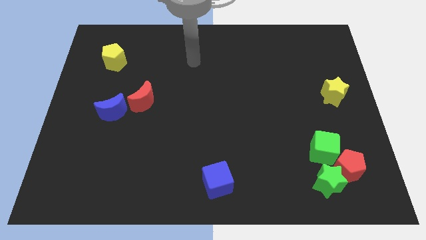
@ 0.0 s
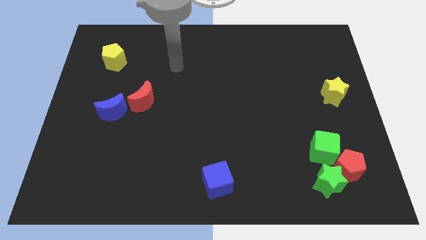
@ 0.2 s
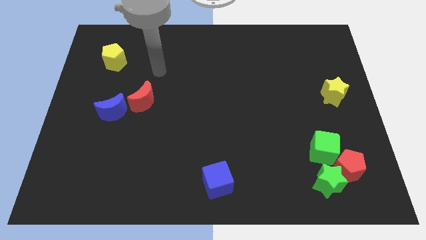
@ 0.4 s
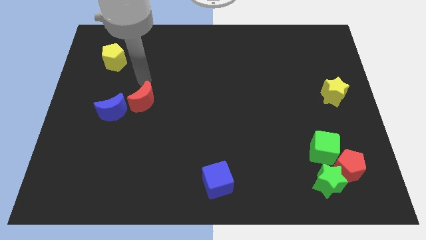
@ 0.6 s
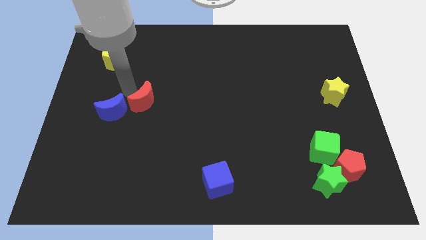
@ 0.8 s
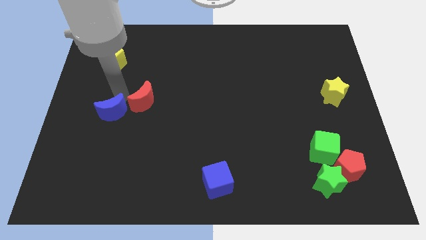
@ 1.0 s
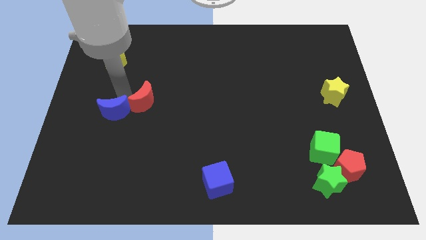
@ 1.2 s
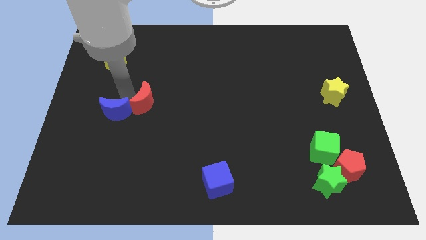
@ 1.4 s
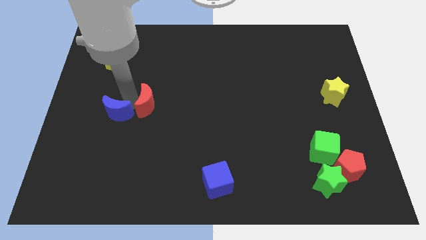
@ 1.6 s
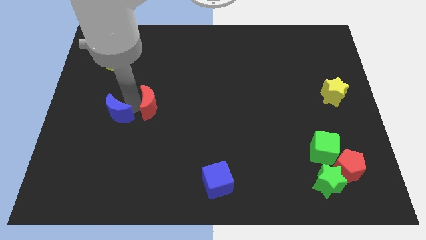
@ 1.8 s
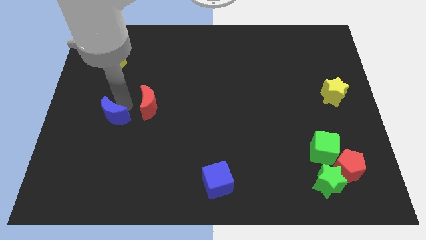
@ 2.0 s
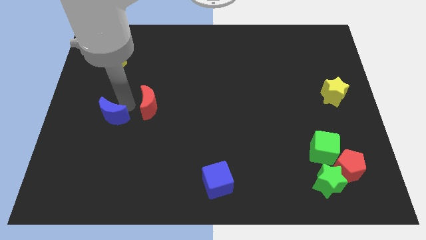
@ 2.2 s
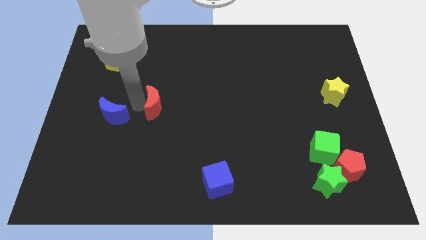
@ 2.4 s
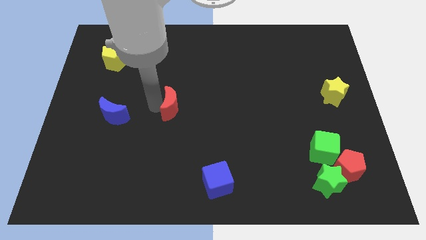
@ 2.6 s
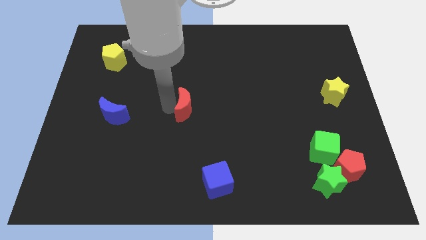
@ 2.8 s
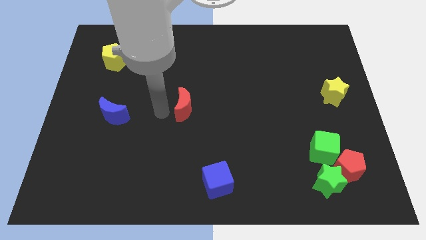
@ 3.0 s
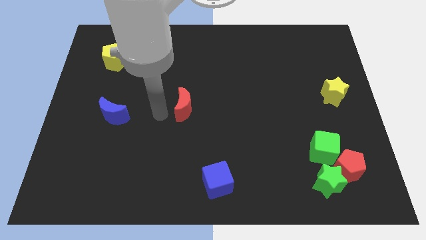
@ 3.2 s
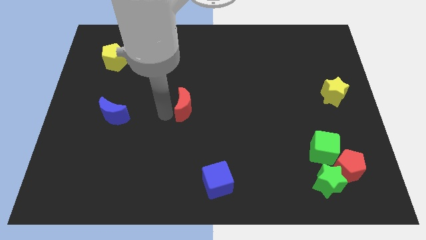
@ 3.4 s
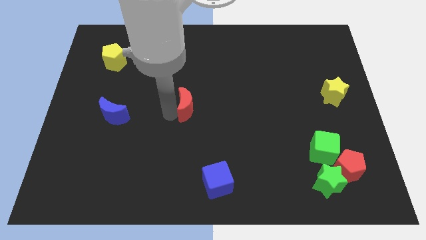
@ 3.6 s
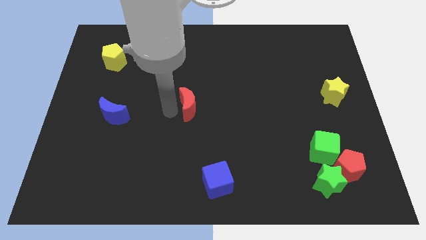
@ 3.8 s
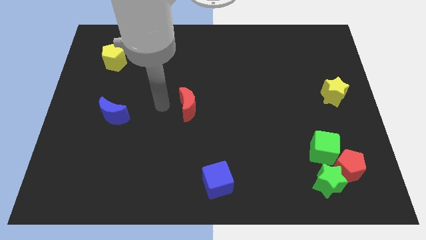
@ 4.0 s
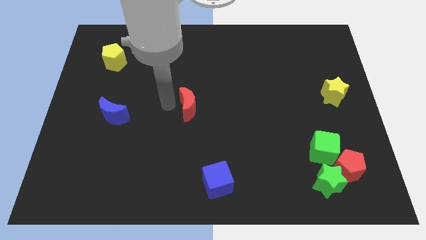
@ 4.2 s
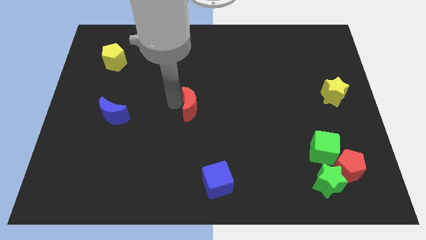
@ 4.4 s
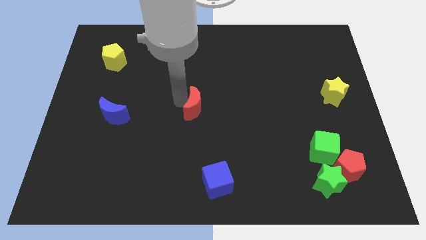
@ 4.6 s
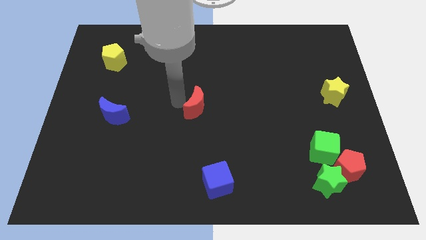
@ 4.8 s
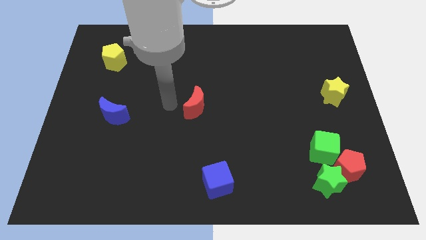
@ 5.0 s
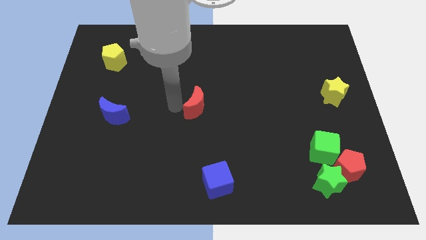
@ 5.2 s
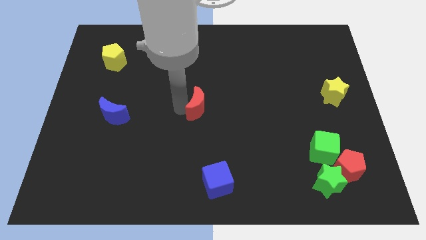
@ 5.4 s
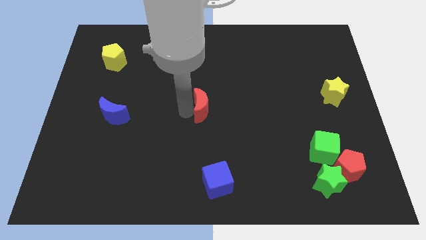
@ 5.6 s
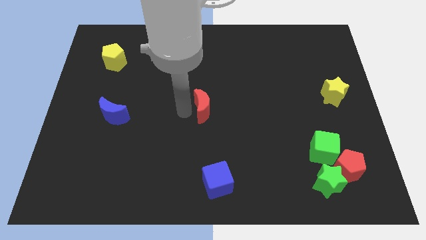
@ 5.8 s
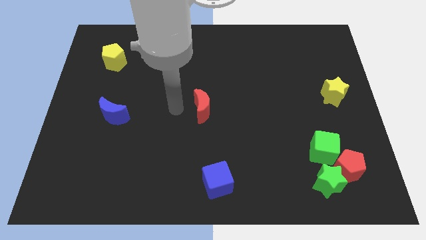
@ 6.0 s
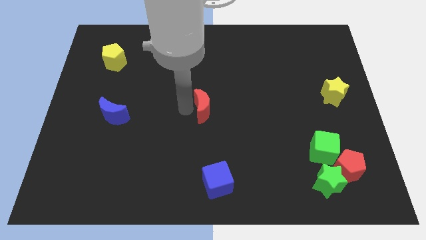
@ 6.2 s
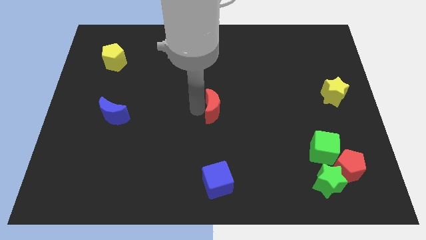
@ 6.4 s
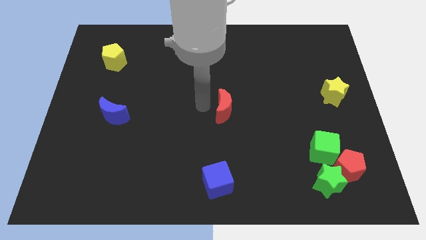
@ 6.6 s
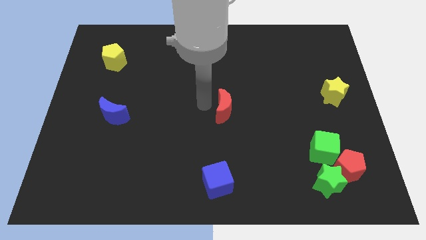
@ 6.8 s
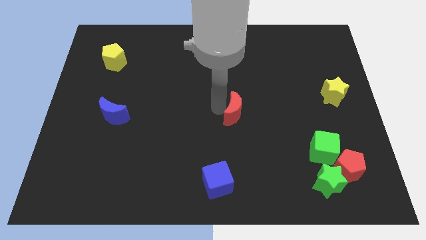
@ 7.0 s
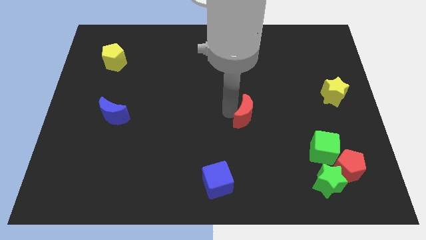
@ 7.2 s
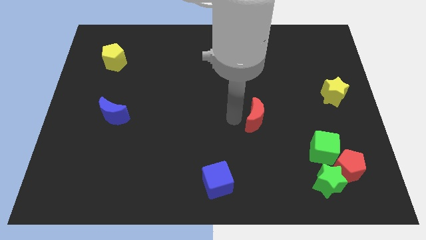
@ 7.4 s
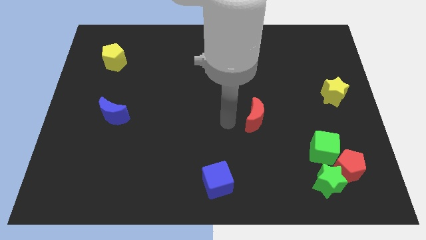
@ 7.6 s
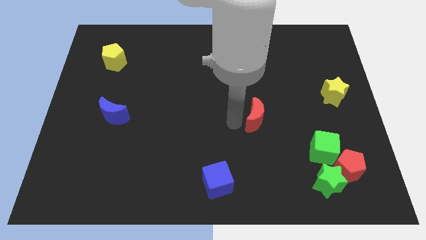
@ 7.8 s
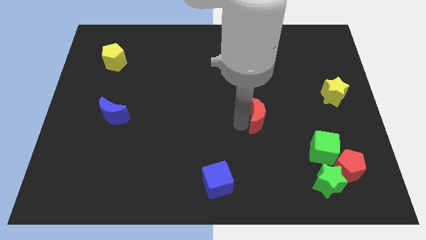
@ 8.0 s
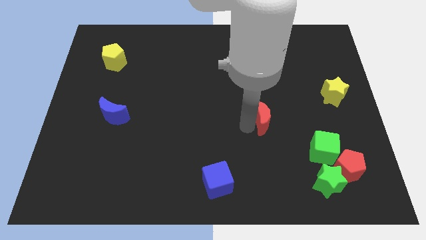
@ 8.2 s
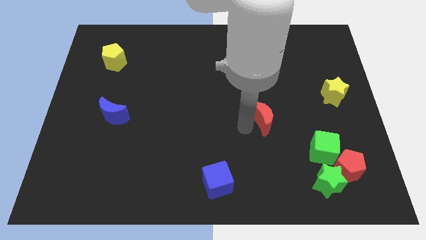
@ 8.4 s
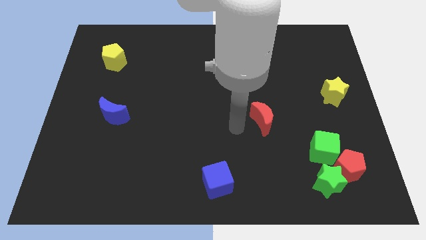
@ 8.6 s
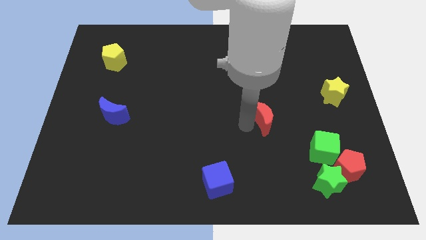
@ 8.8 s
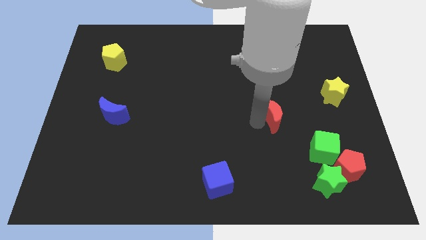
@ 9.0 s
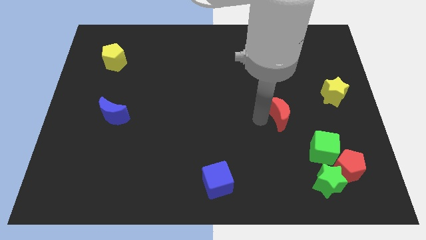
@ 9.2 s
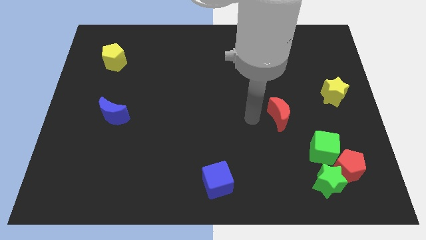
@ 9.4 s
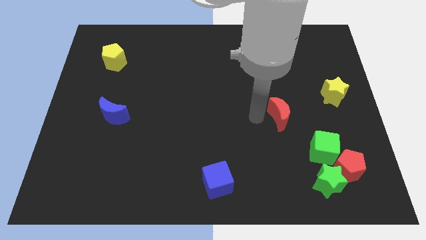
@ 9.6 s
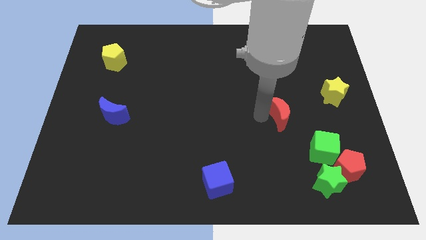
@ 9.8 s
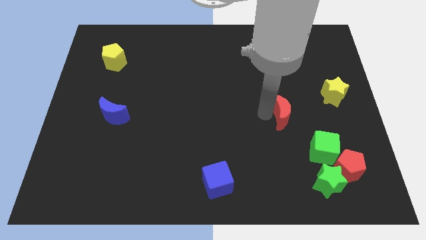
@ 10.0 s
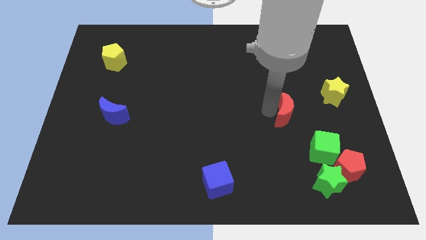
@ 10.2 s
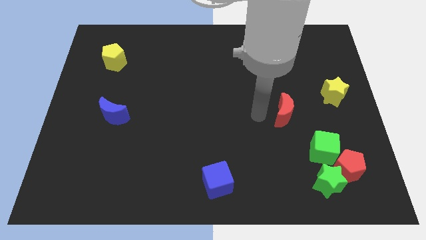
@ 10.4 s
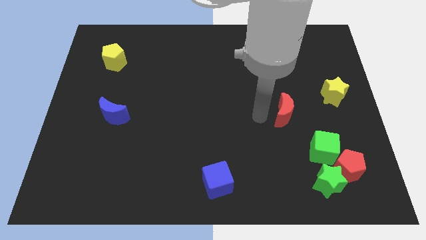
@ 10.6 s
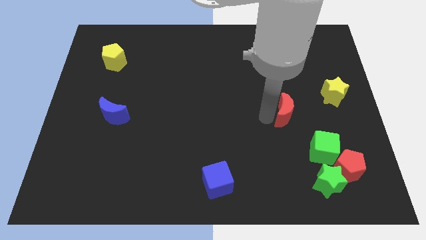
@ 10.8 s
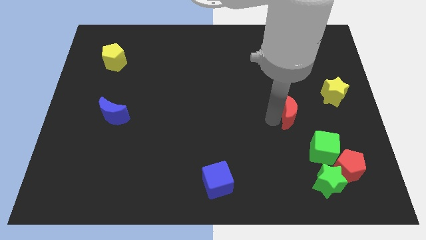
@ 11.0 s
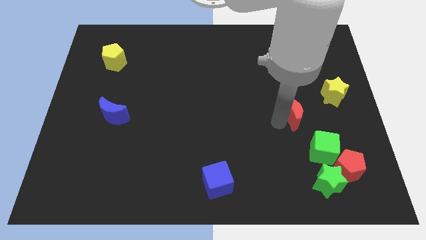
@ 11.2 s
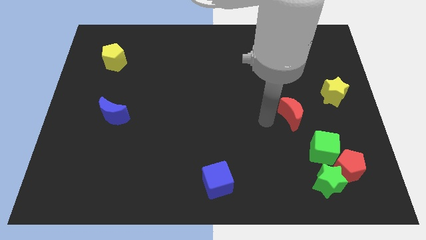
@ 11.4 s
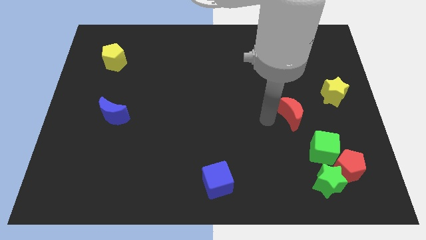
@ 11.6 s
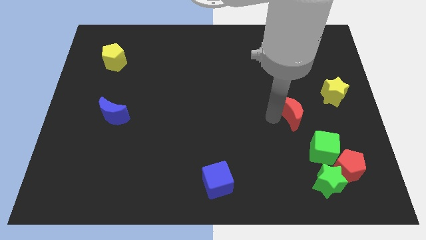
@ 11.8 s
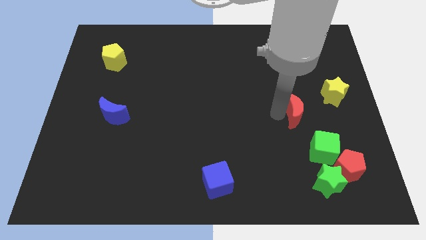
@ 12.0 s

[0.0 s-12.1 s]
put the red moon to the top side of the green cube
